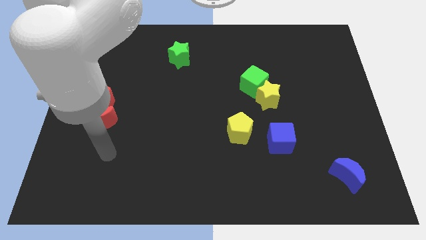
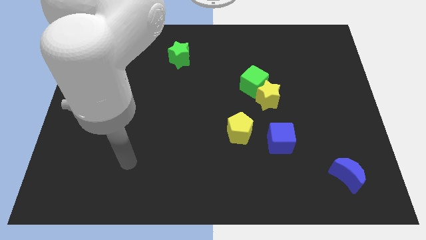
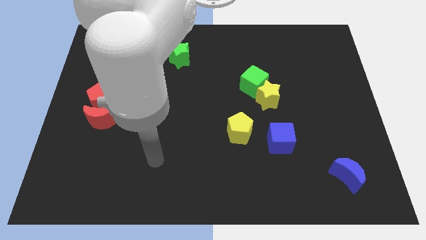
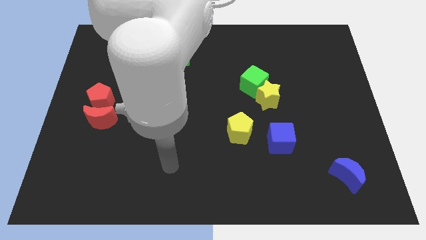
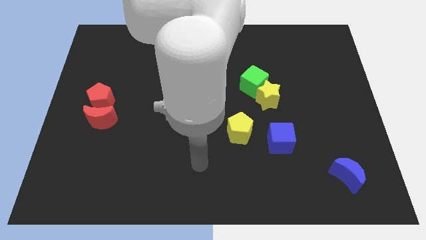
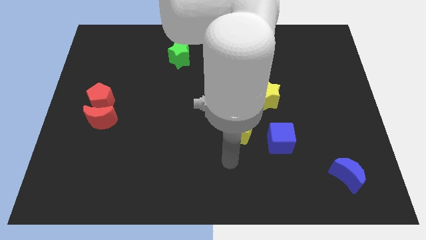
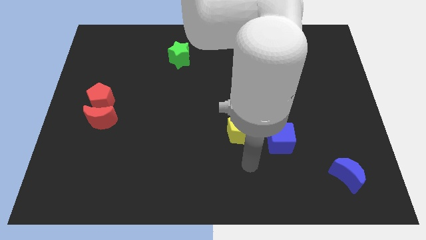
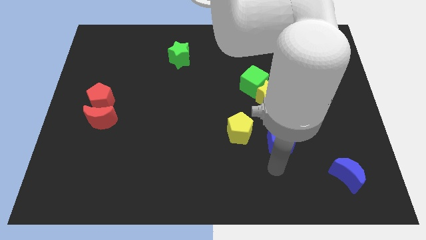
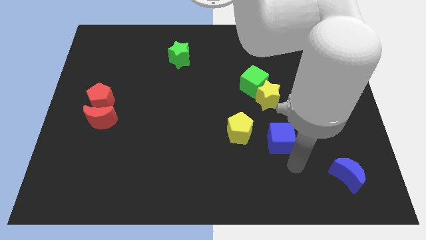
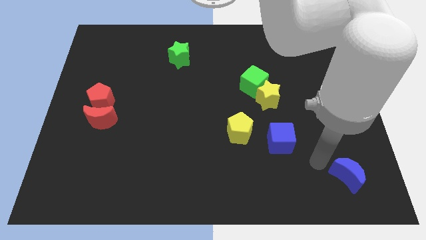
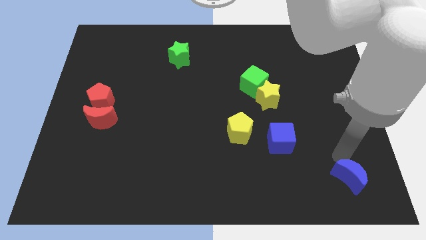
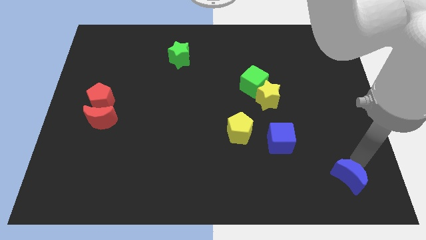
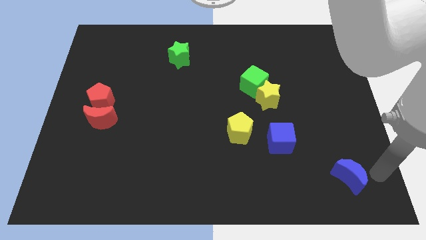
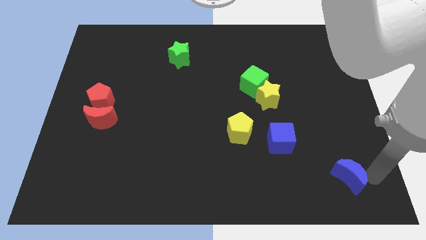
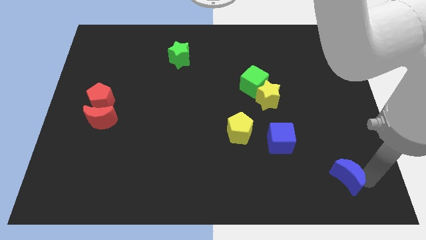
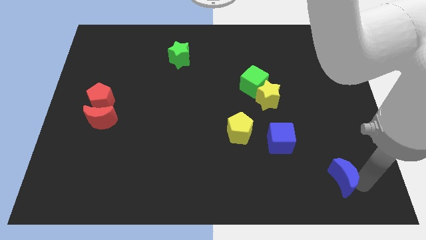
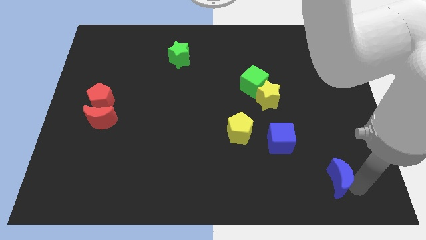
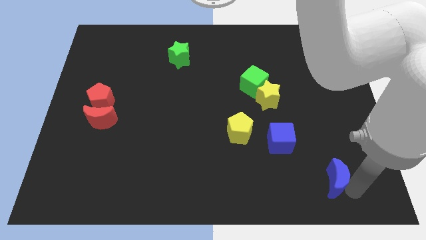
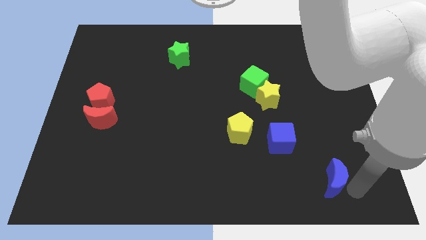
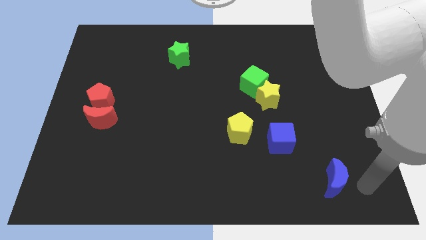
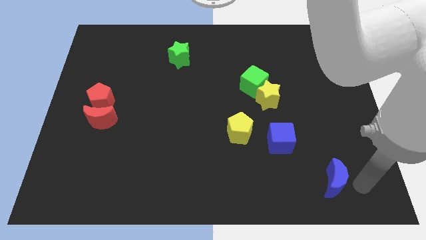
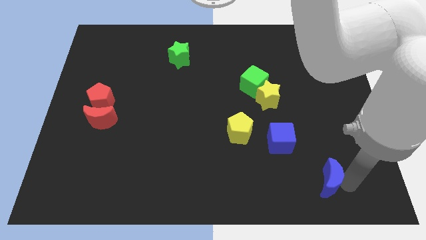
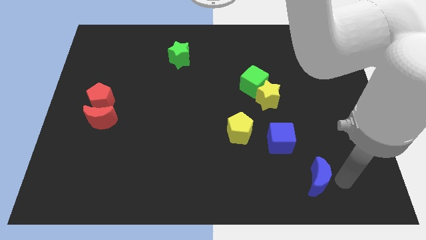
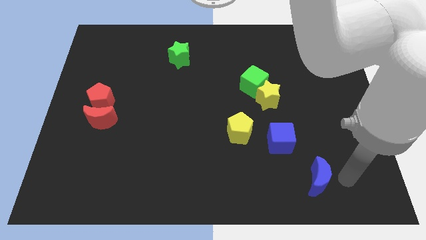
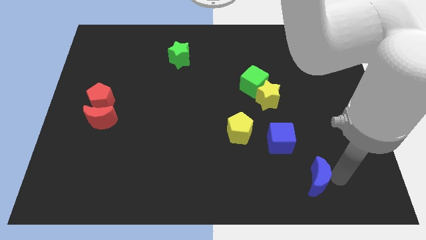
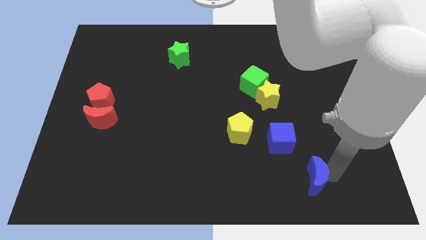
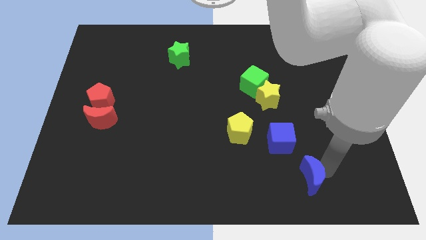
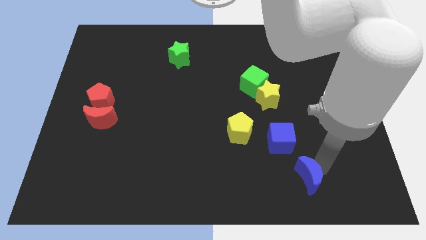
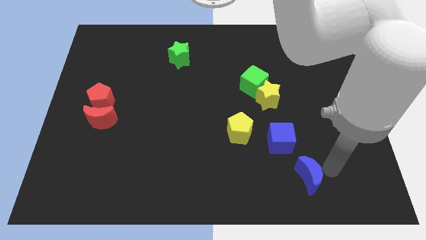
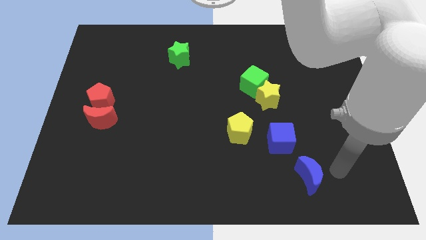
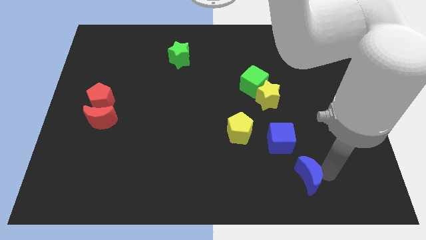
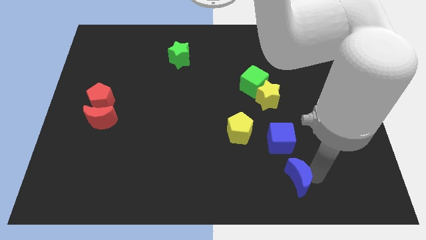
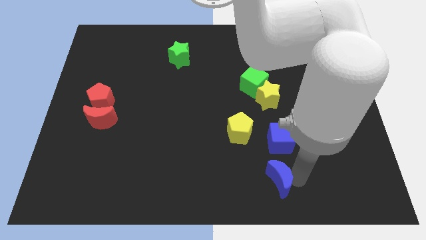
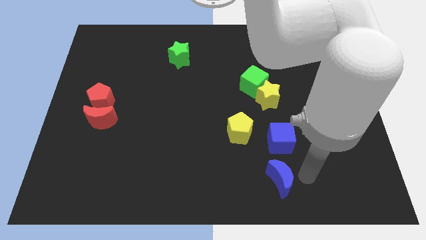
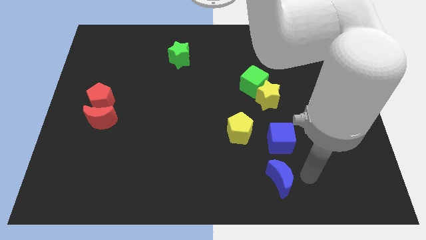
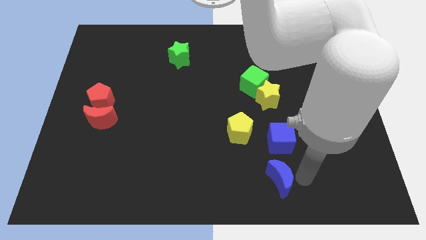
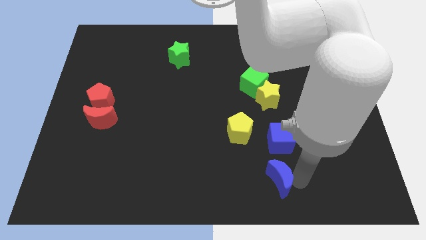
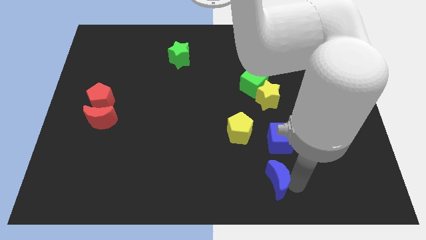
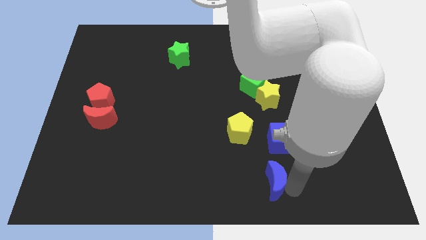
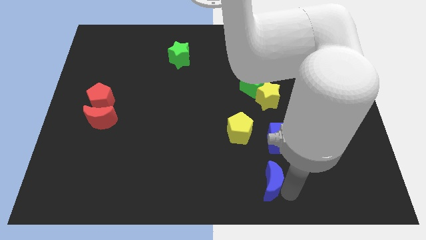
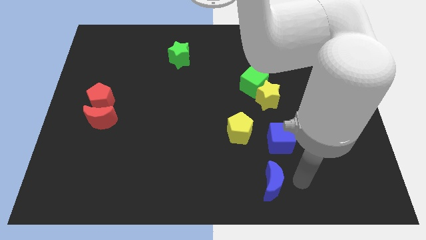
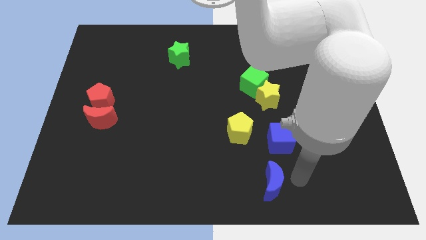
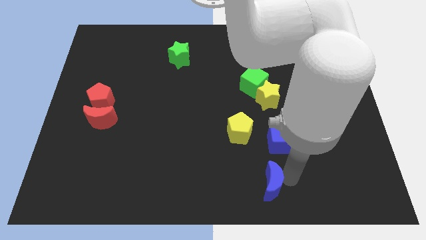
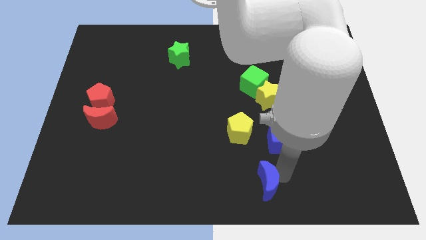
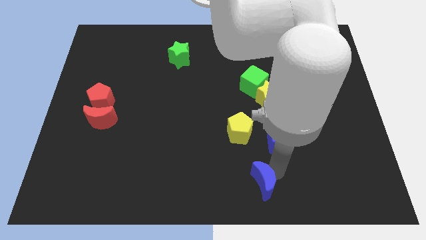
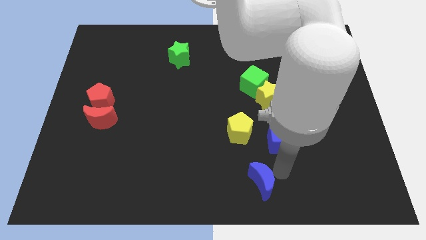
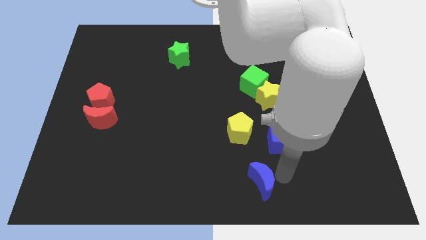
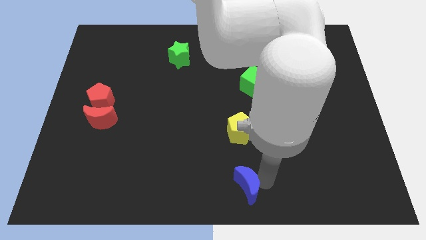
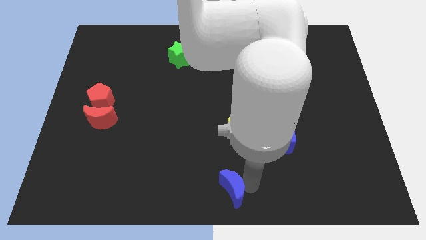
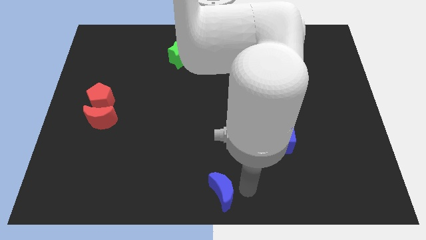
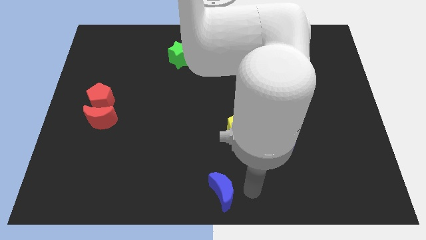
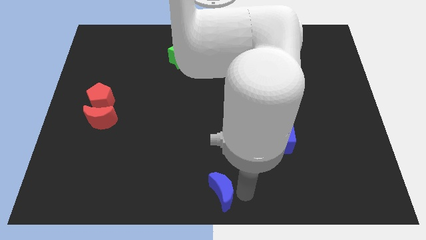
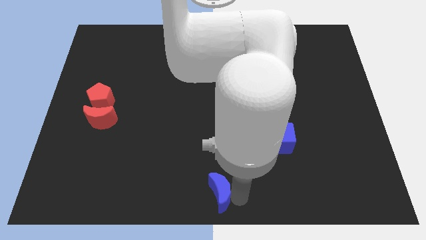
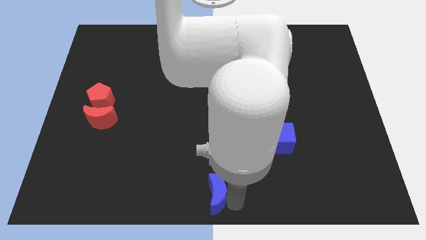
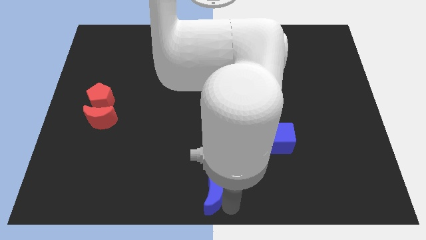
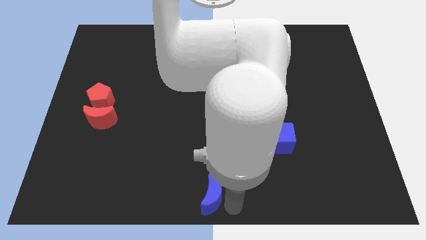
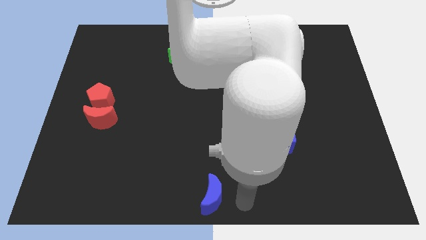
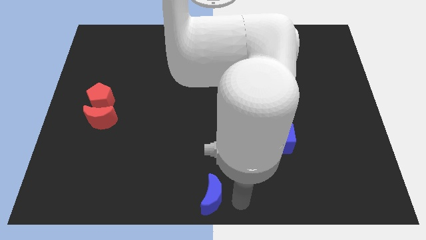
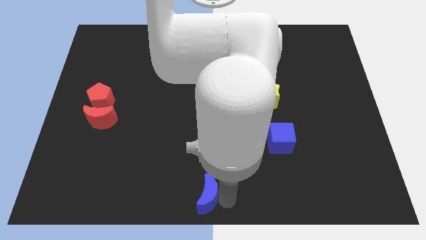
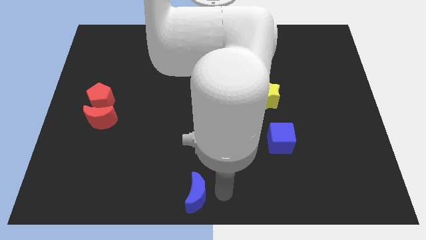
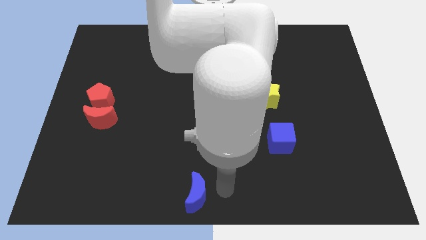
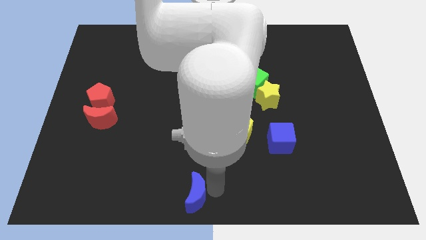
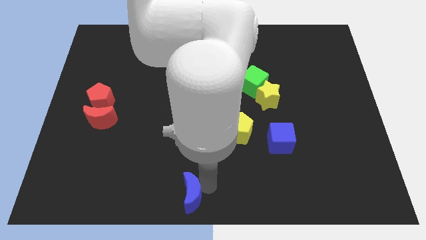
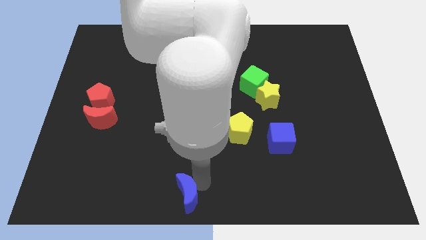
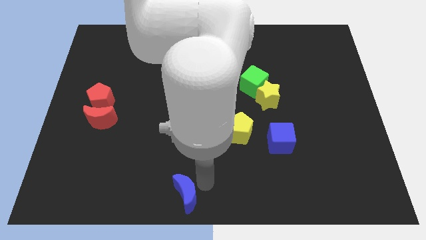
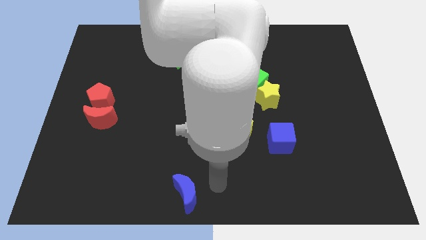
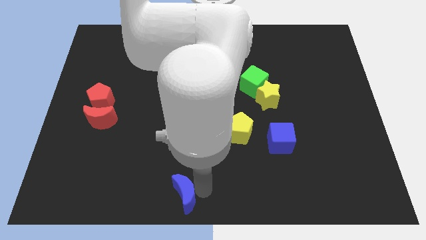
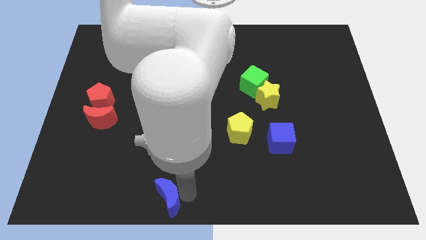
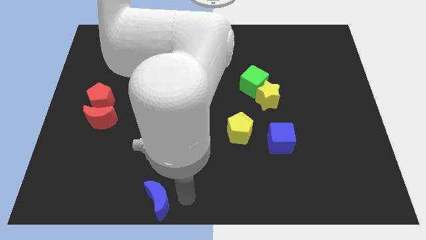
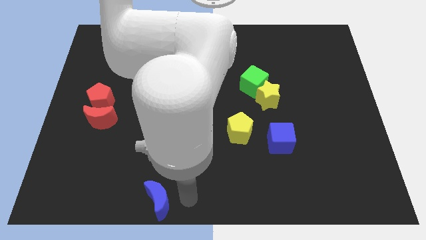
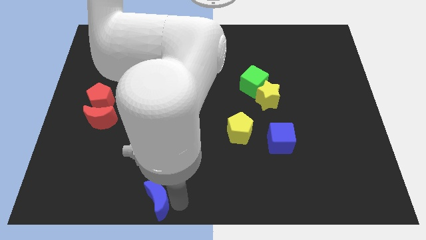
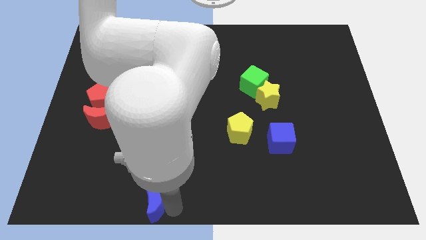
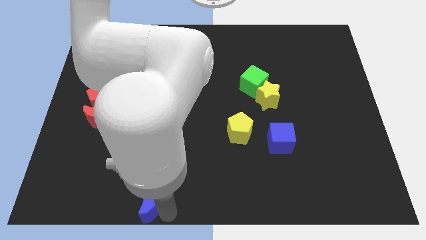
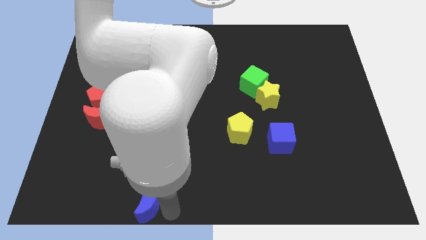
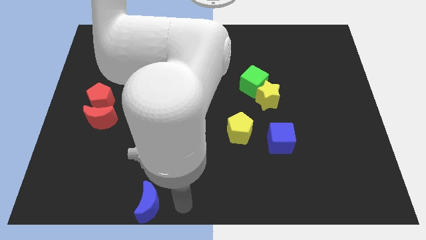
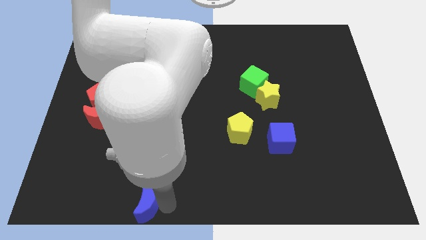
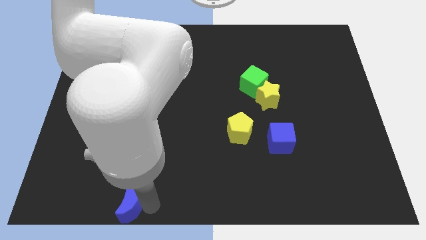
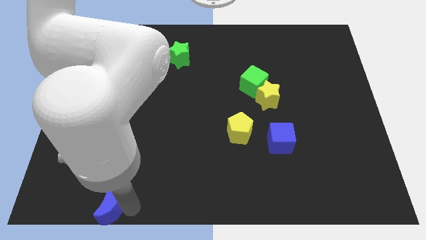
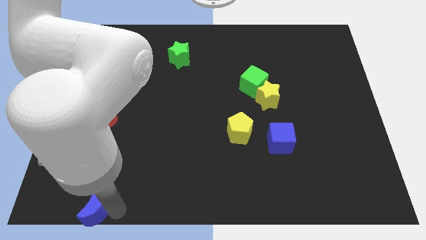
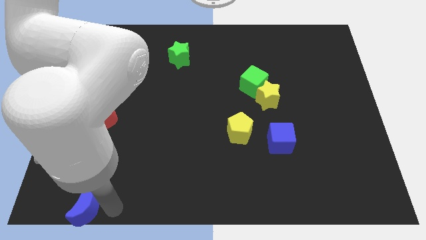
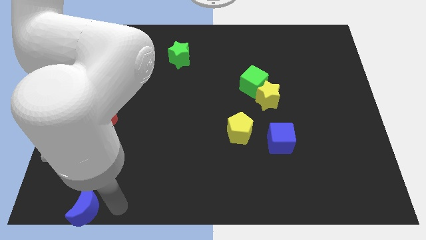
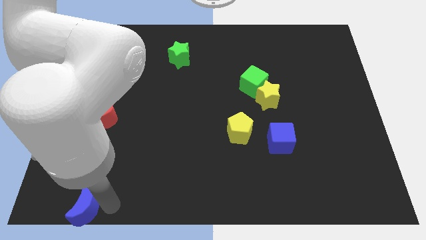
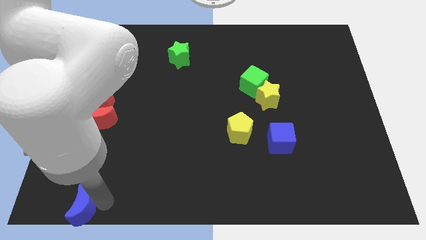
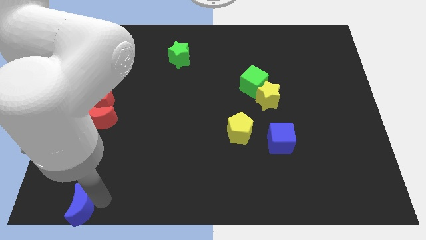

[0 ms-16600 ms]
push the blue moon to the bottom left of the board
